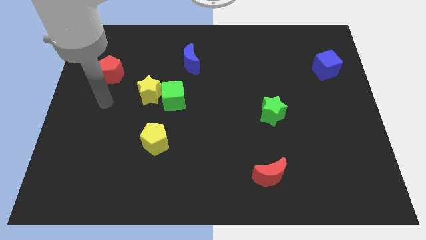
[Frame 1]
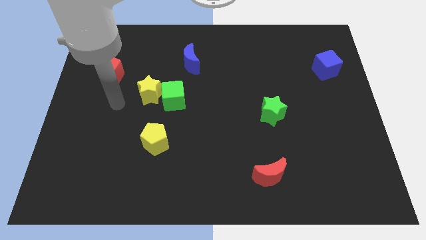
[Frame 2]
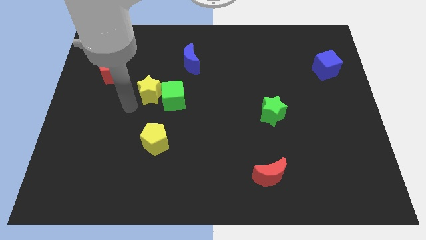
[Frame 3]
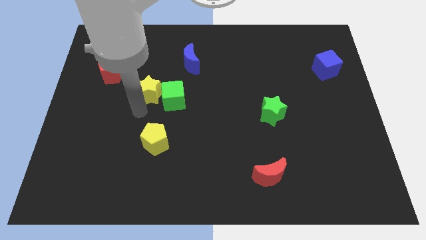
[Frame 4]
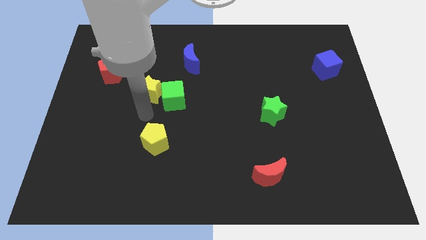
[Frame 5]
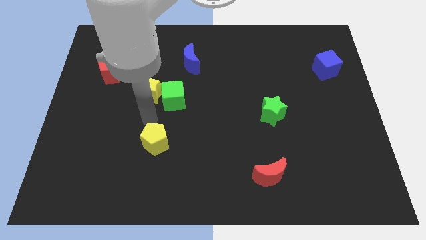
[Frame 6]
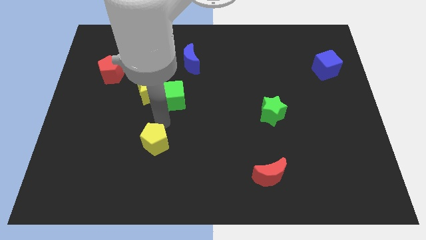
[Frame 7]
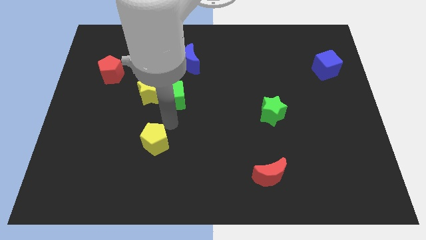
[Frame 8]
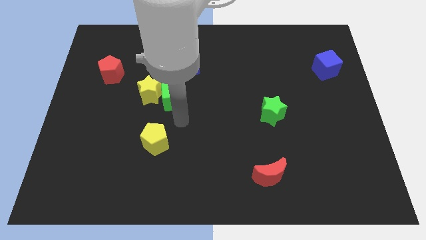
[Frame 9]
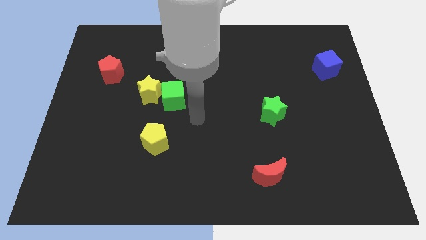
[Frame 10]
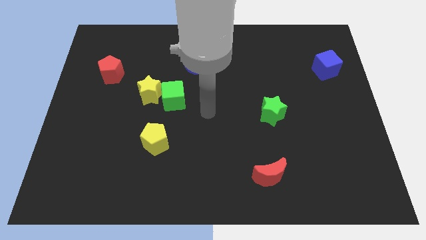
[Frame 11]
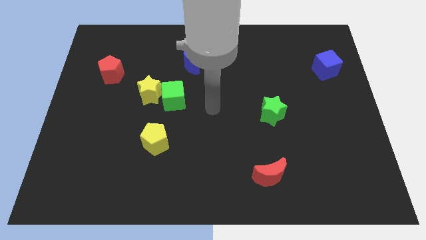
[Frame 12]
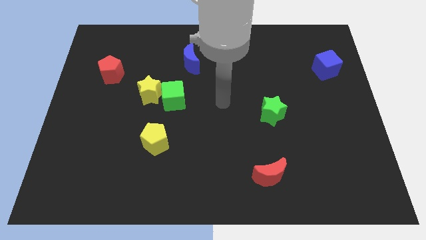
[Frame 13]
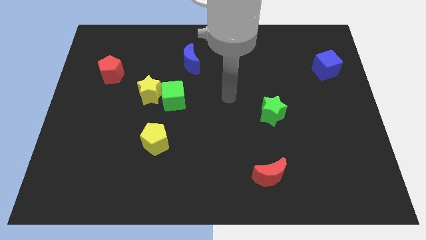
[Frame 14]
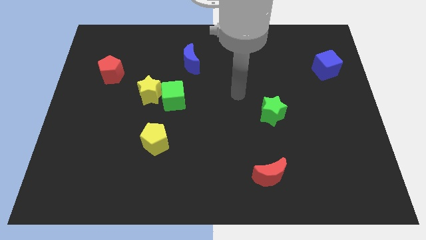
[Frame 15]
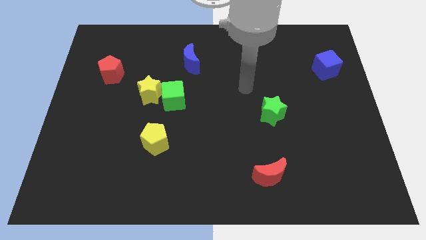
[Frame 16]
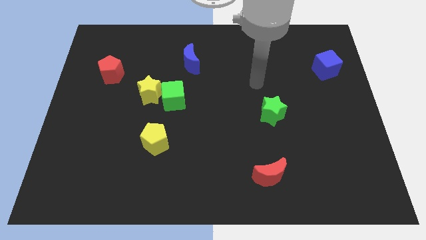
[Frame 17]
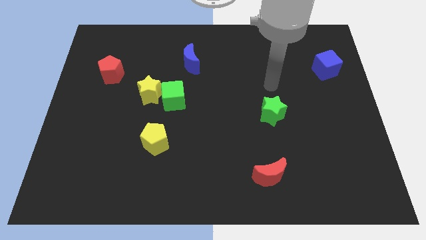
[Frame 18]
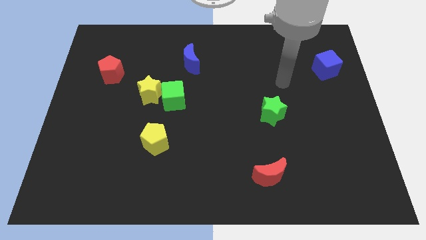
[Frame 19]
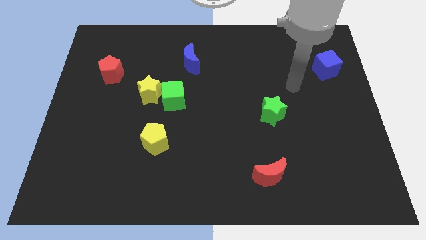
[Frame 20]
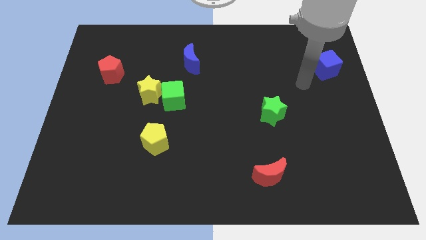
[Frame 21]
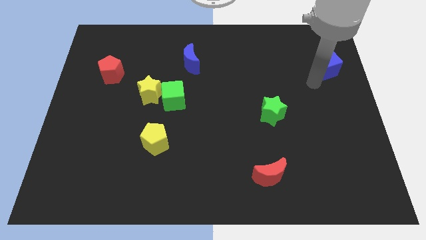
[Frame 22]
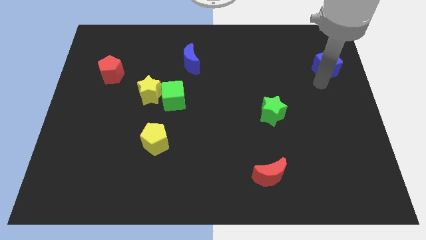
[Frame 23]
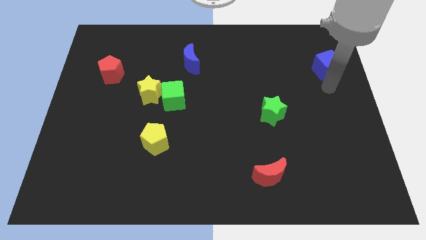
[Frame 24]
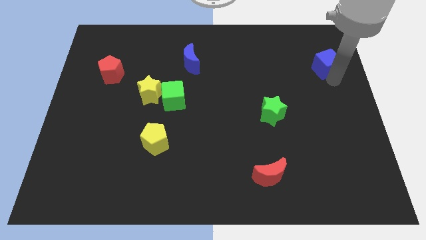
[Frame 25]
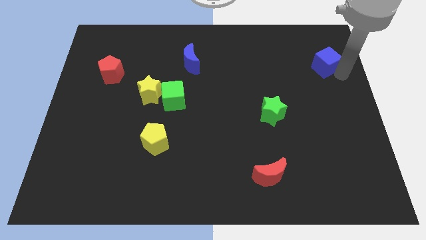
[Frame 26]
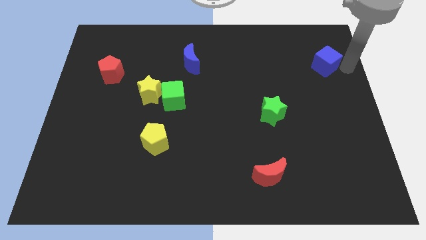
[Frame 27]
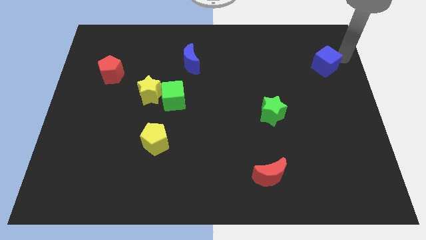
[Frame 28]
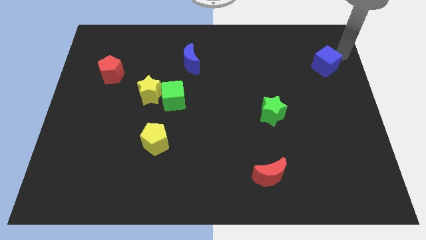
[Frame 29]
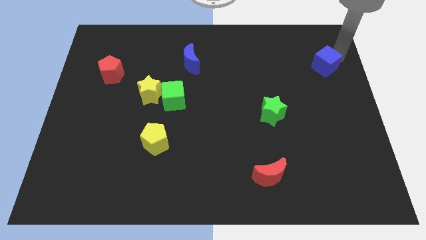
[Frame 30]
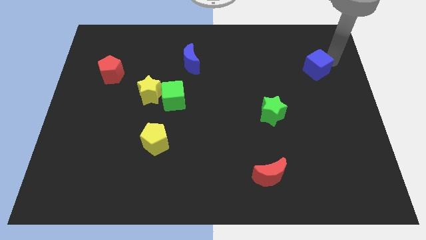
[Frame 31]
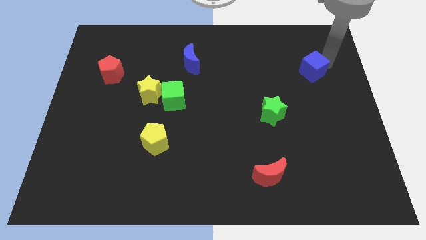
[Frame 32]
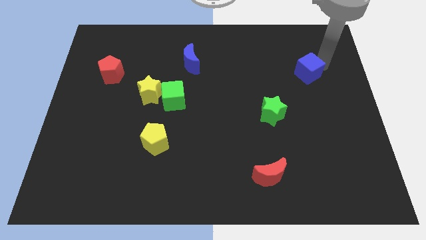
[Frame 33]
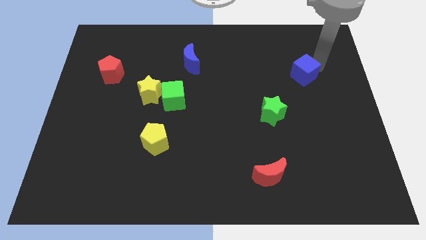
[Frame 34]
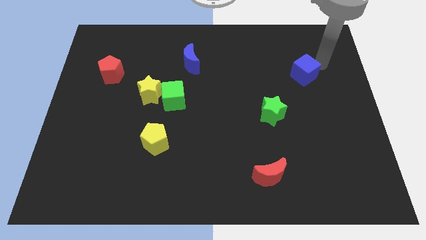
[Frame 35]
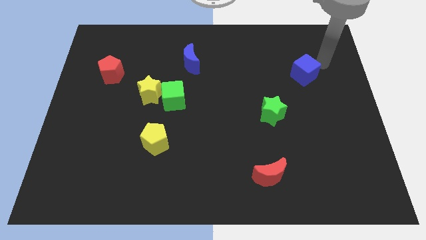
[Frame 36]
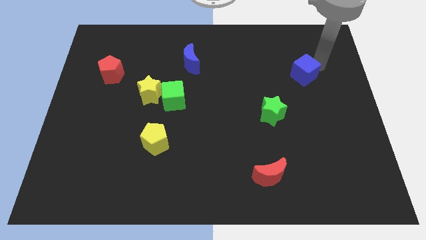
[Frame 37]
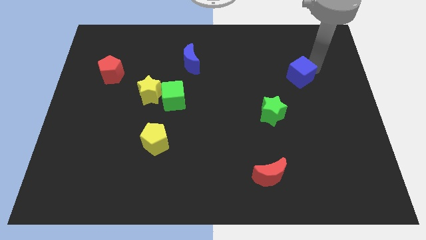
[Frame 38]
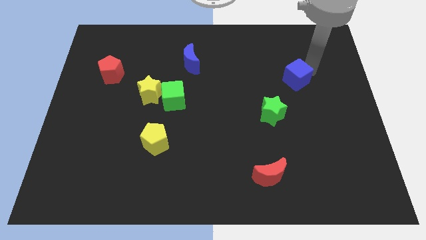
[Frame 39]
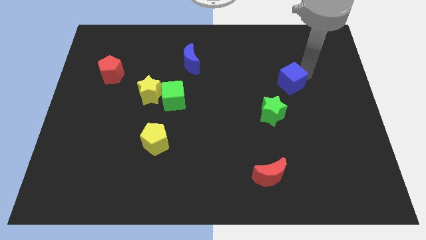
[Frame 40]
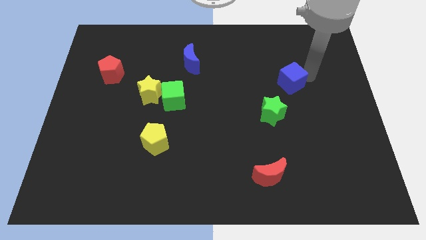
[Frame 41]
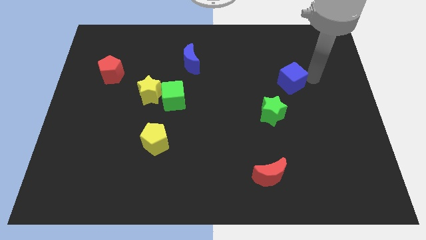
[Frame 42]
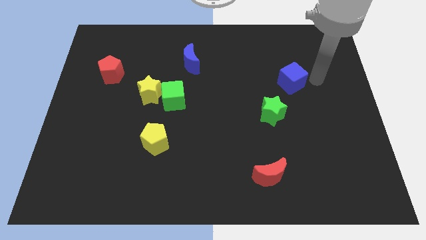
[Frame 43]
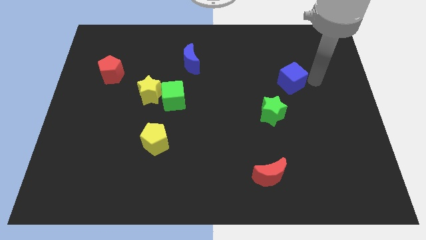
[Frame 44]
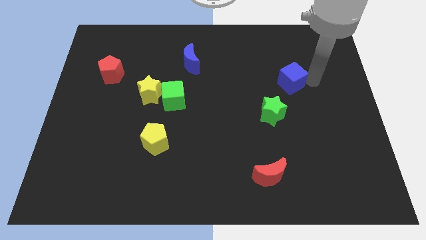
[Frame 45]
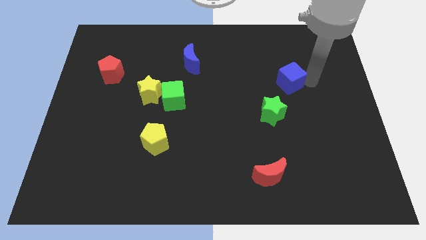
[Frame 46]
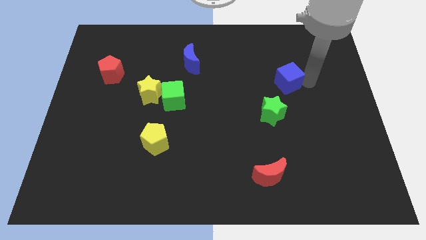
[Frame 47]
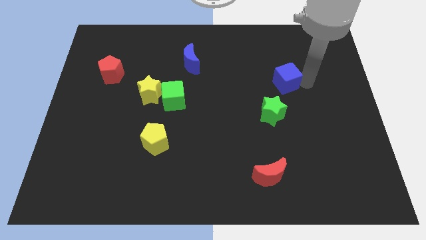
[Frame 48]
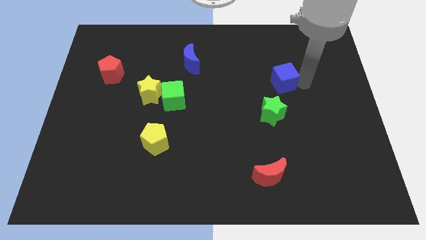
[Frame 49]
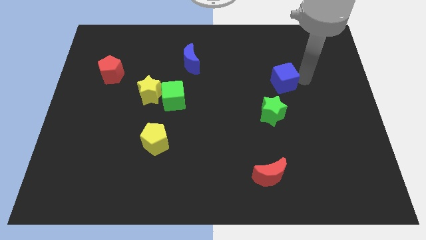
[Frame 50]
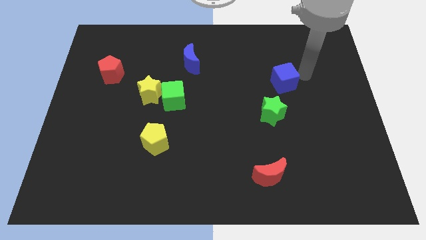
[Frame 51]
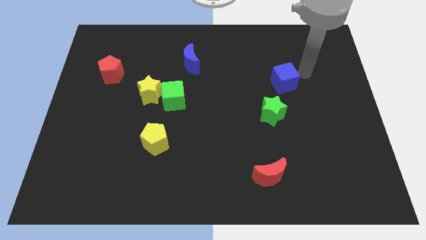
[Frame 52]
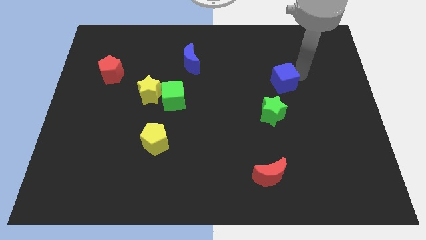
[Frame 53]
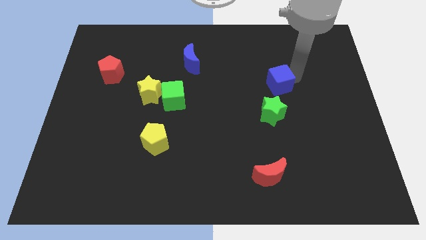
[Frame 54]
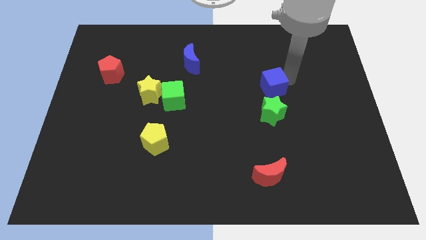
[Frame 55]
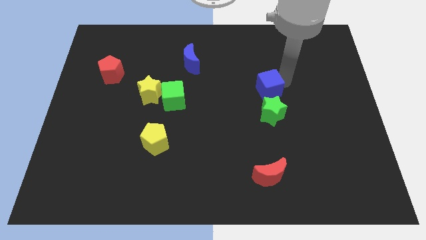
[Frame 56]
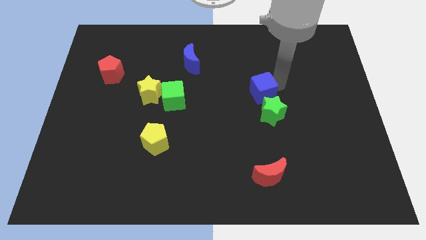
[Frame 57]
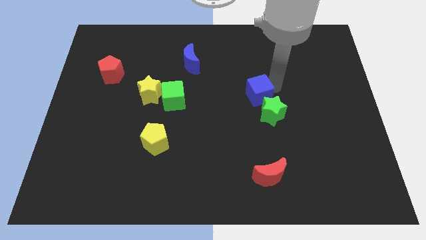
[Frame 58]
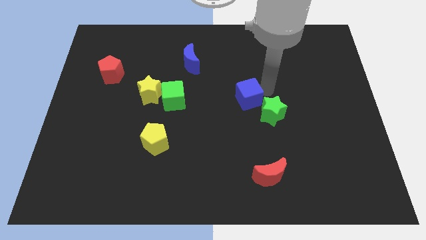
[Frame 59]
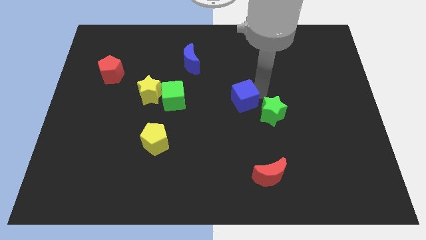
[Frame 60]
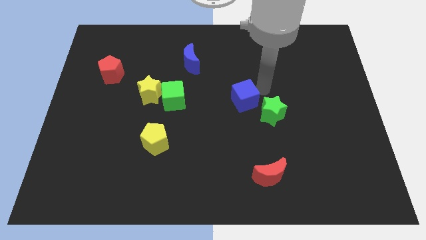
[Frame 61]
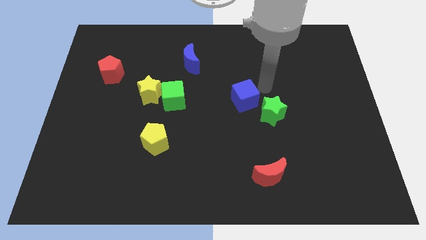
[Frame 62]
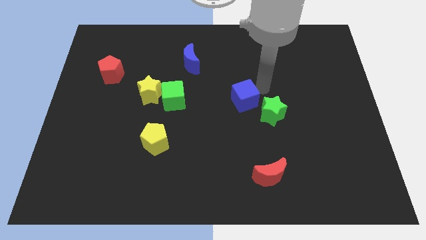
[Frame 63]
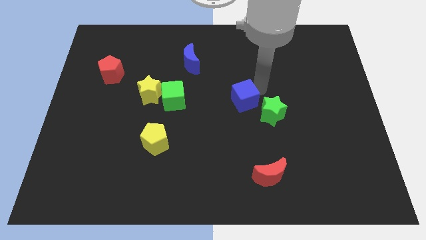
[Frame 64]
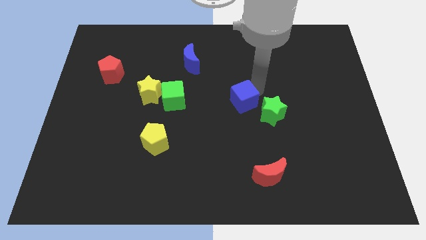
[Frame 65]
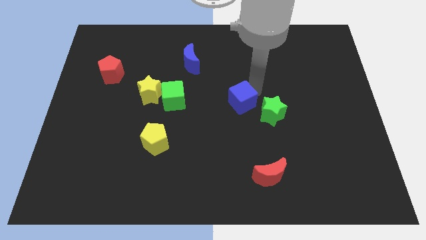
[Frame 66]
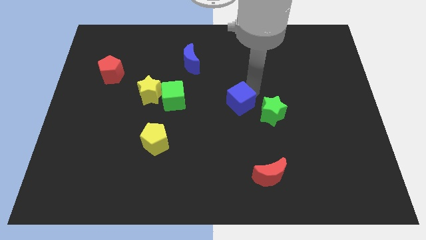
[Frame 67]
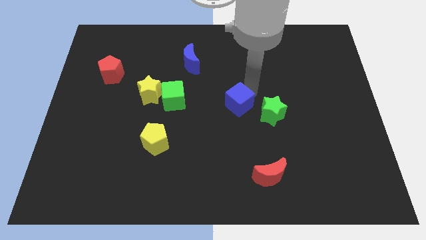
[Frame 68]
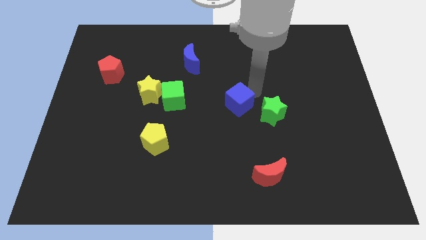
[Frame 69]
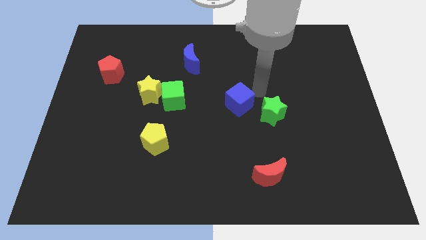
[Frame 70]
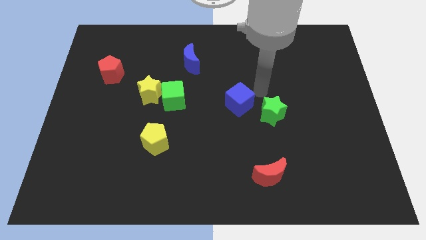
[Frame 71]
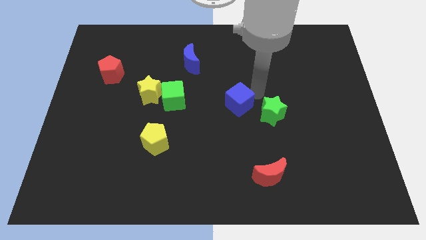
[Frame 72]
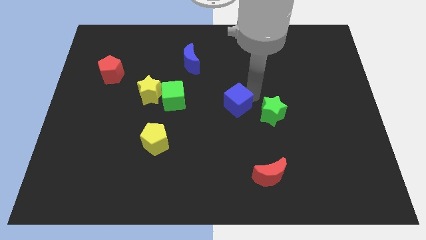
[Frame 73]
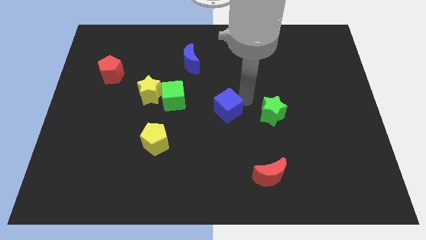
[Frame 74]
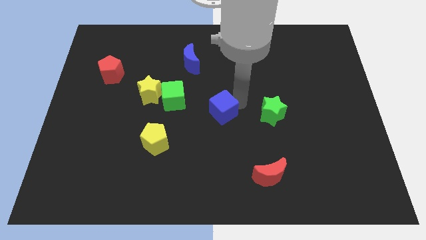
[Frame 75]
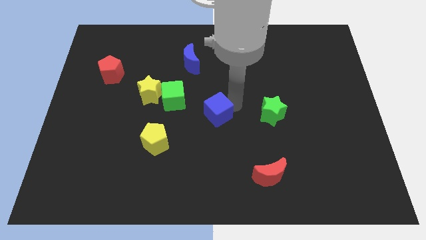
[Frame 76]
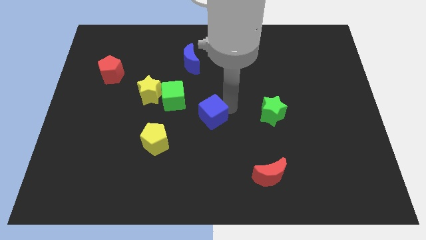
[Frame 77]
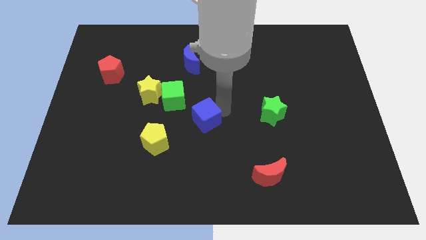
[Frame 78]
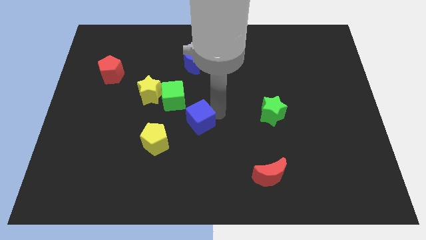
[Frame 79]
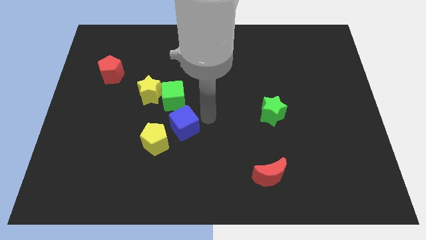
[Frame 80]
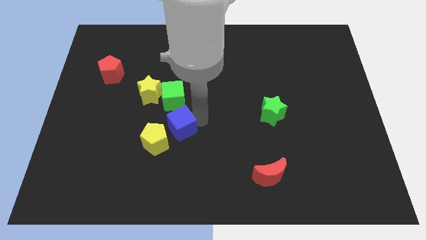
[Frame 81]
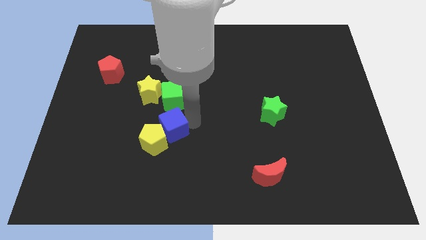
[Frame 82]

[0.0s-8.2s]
slide the blue cube to the yellow pentagon
